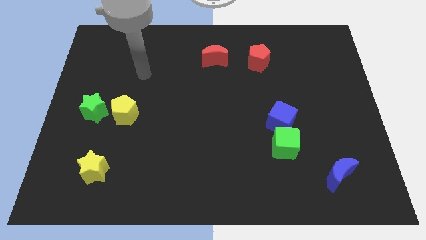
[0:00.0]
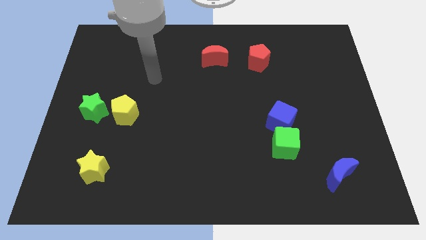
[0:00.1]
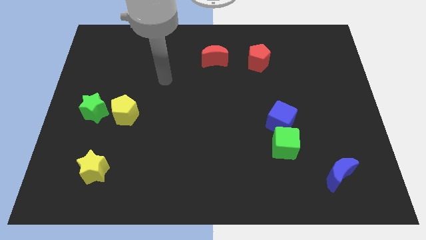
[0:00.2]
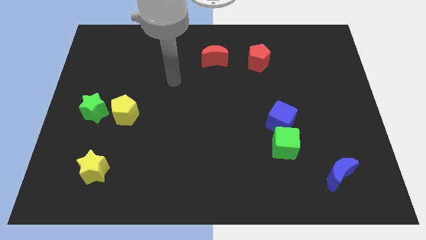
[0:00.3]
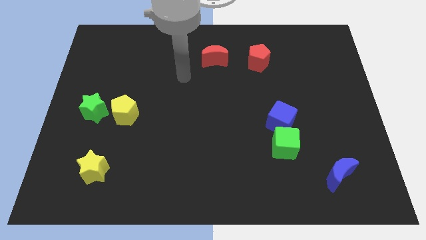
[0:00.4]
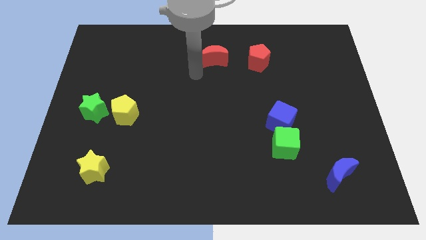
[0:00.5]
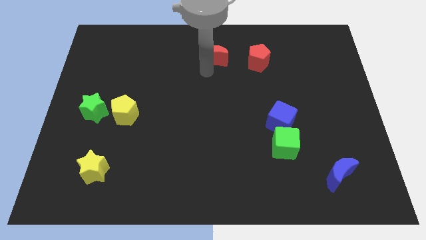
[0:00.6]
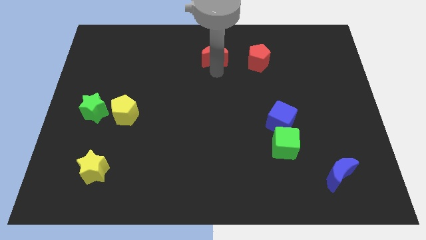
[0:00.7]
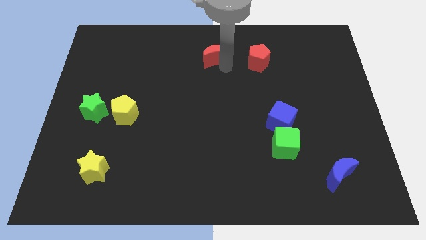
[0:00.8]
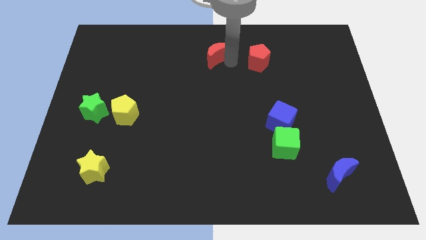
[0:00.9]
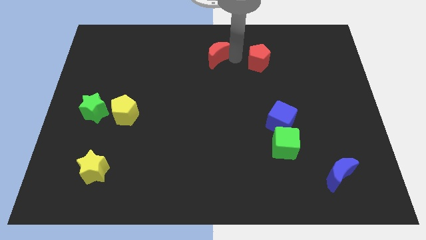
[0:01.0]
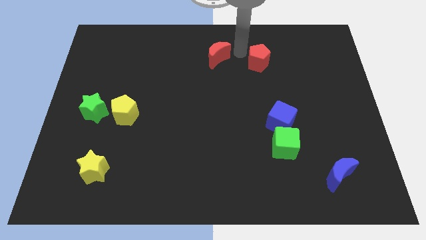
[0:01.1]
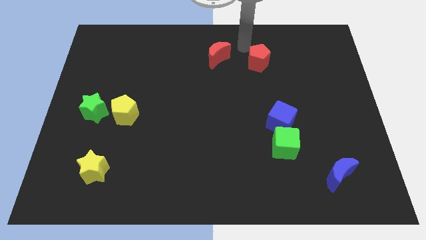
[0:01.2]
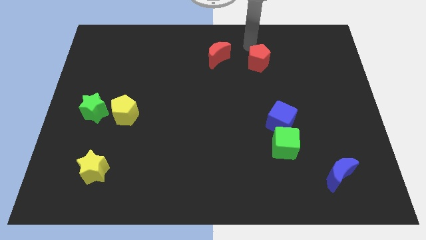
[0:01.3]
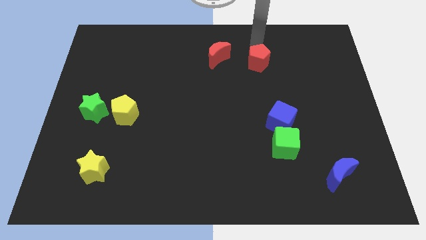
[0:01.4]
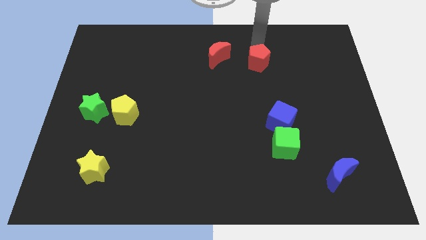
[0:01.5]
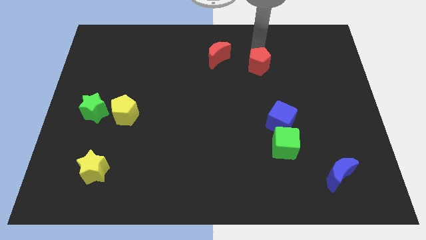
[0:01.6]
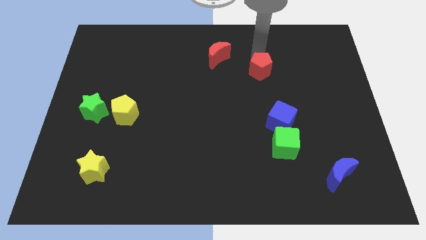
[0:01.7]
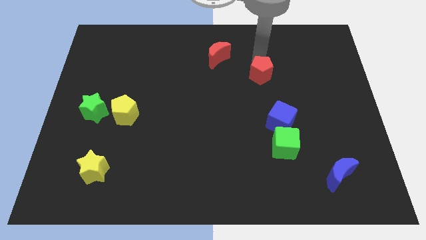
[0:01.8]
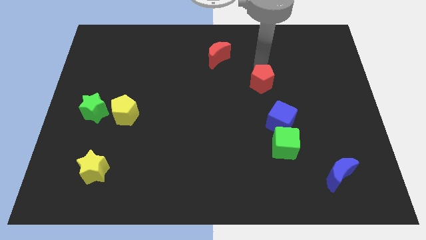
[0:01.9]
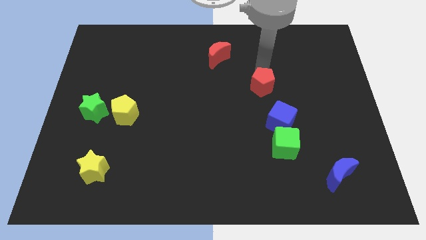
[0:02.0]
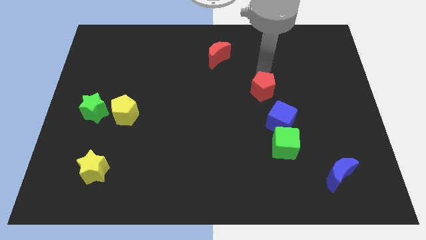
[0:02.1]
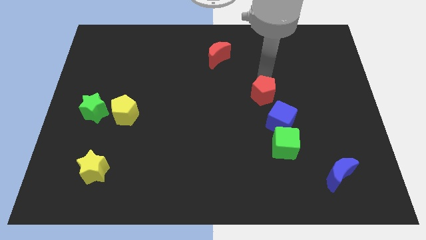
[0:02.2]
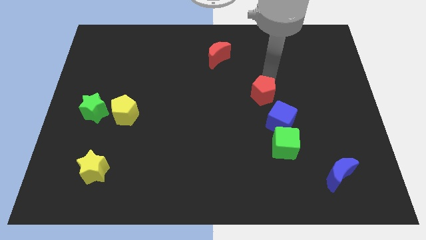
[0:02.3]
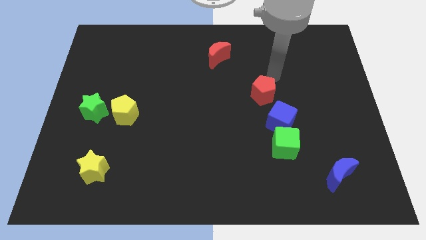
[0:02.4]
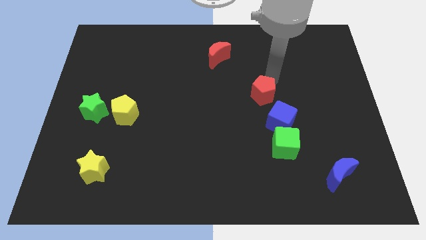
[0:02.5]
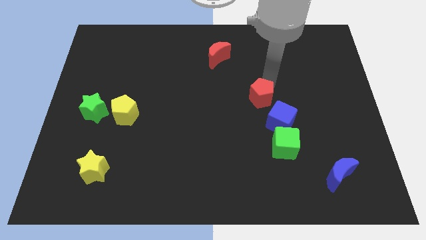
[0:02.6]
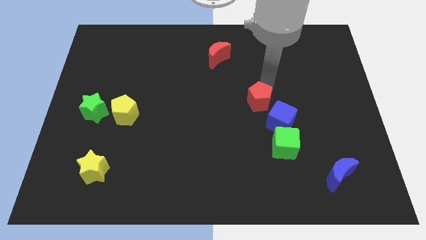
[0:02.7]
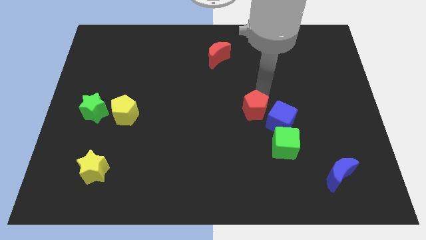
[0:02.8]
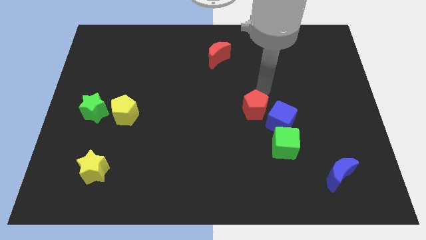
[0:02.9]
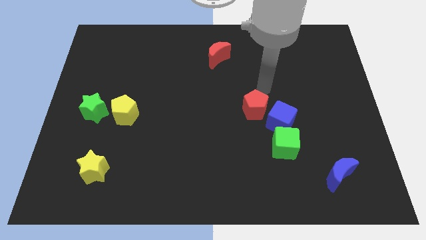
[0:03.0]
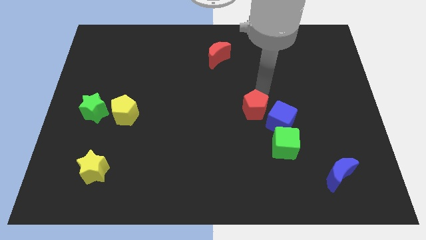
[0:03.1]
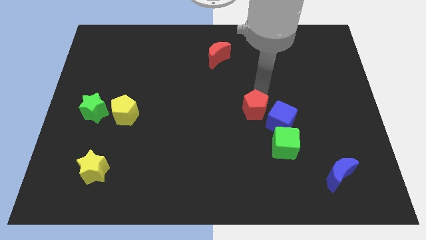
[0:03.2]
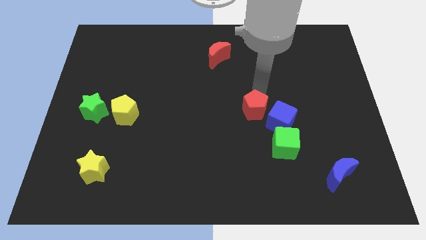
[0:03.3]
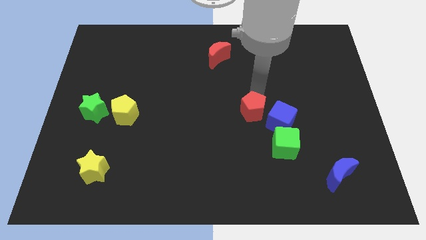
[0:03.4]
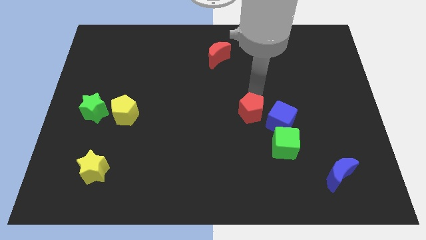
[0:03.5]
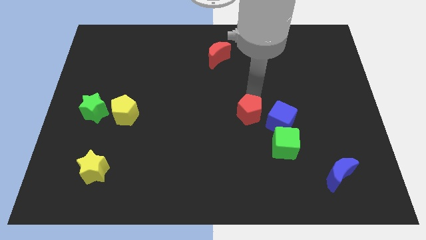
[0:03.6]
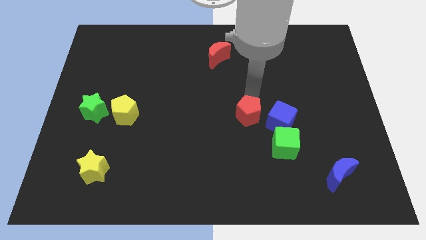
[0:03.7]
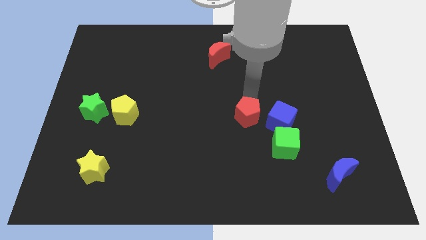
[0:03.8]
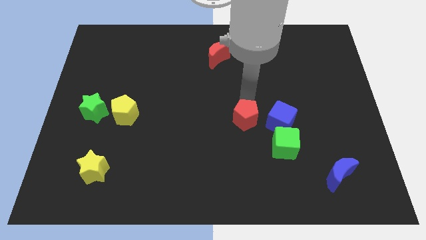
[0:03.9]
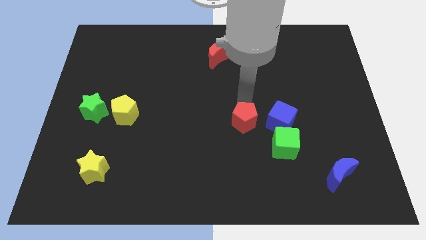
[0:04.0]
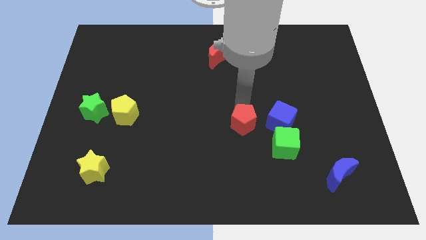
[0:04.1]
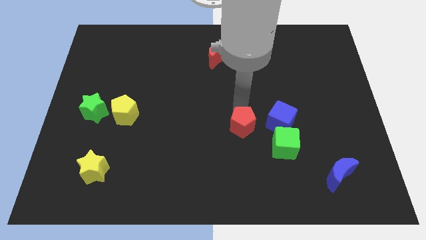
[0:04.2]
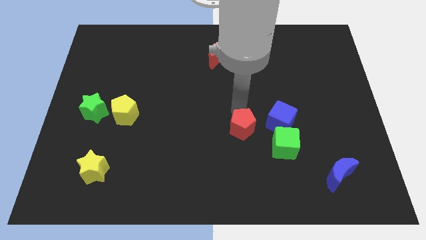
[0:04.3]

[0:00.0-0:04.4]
move the red pentagon left of the green cube

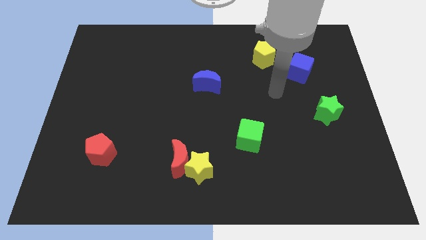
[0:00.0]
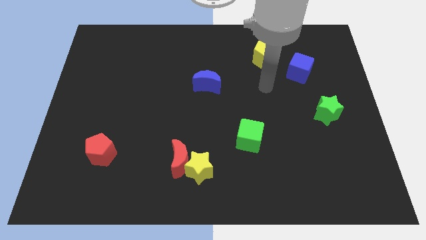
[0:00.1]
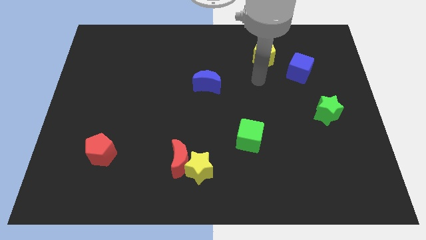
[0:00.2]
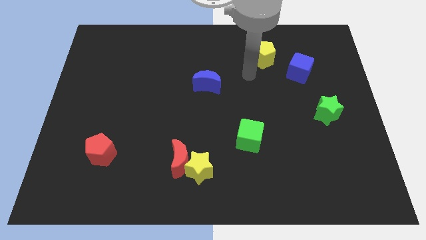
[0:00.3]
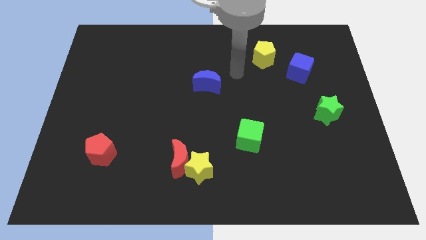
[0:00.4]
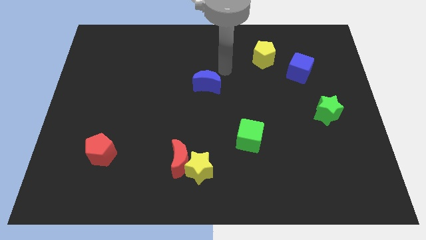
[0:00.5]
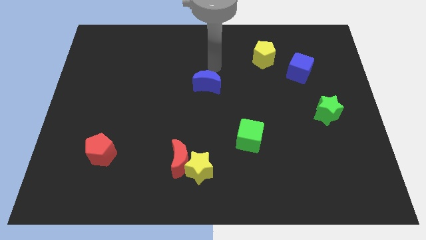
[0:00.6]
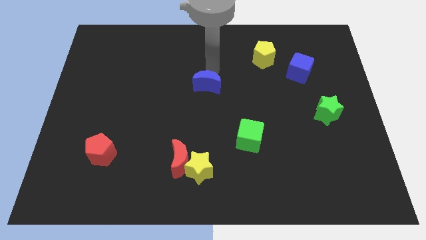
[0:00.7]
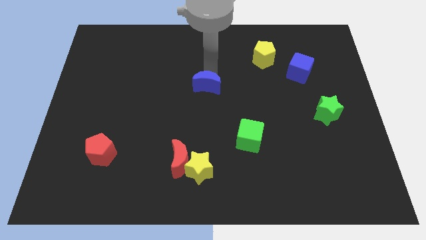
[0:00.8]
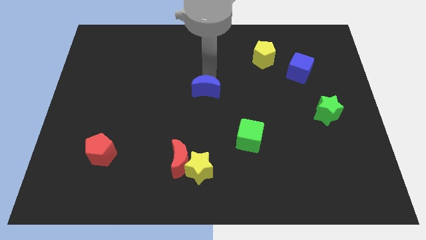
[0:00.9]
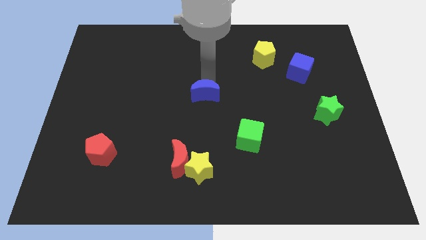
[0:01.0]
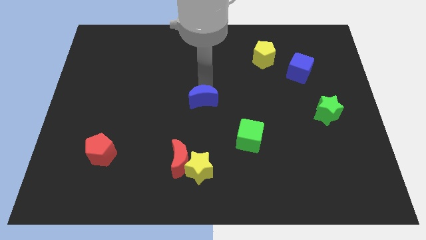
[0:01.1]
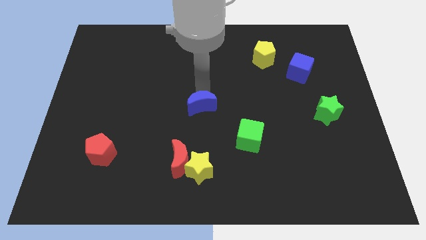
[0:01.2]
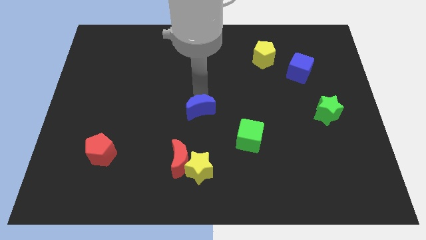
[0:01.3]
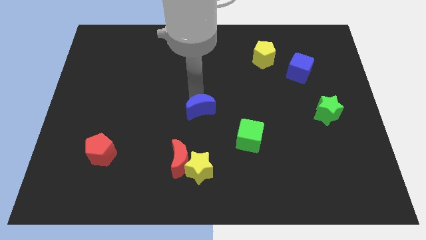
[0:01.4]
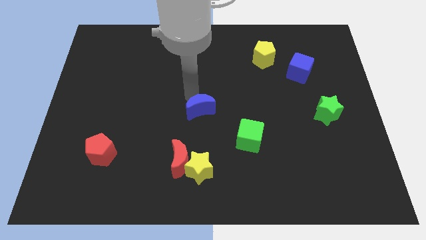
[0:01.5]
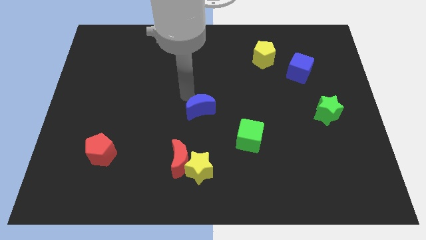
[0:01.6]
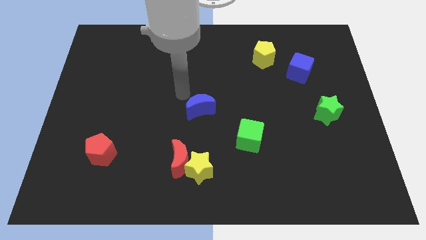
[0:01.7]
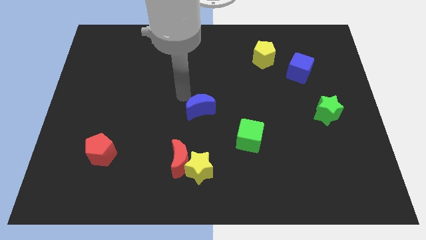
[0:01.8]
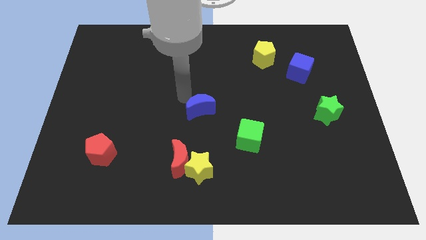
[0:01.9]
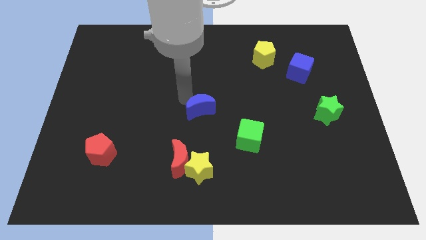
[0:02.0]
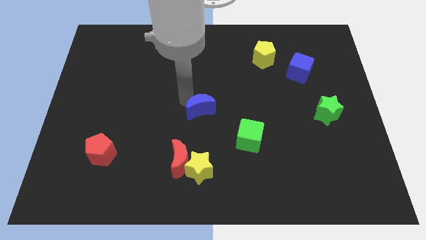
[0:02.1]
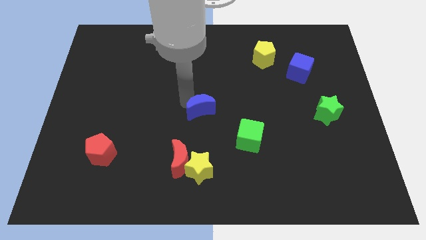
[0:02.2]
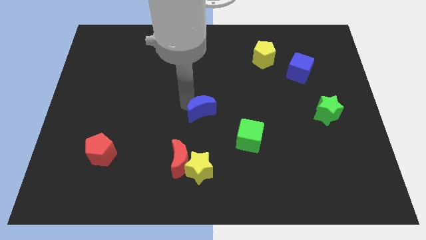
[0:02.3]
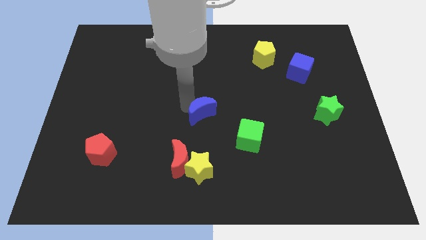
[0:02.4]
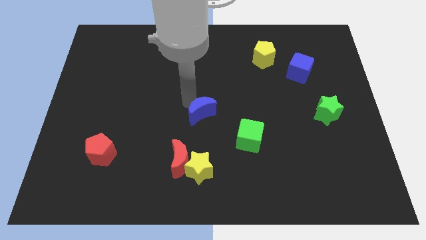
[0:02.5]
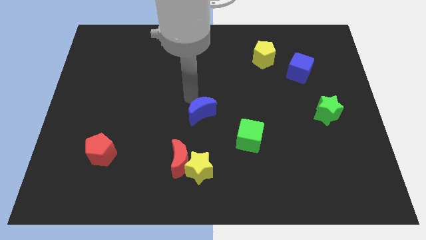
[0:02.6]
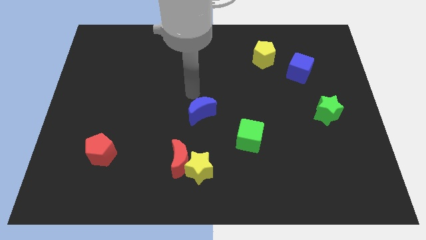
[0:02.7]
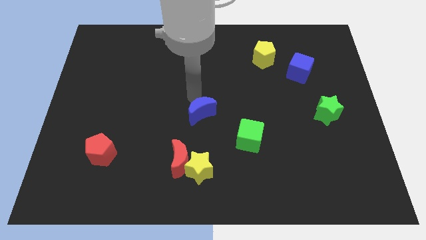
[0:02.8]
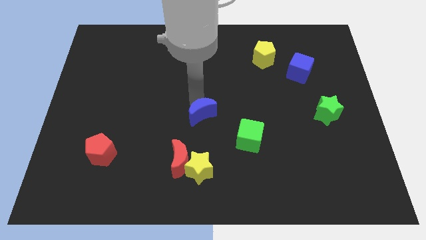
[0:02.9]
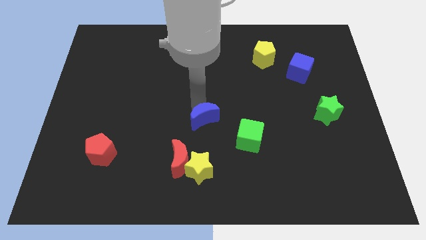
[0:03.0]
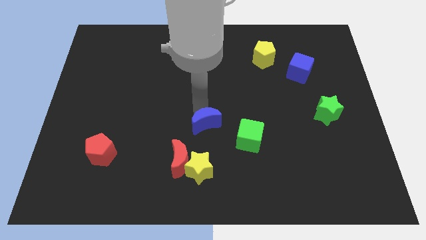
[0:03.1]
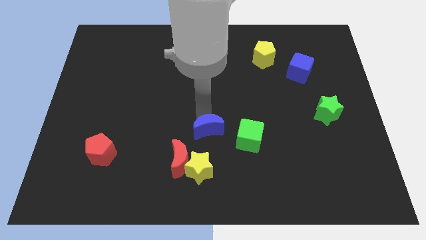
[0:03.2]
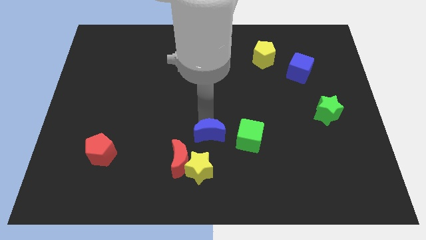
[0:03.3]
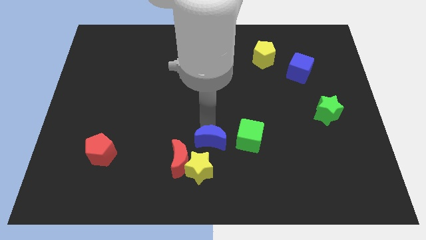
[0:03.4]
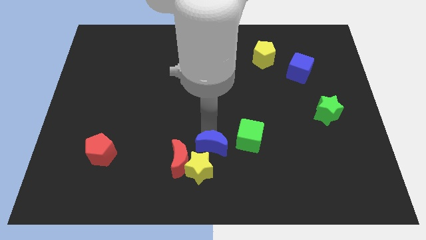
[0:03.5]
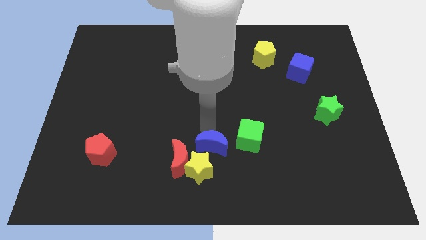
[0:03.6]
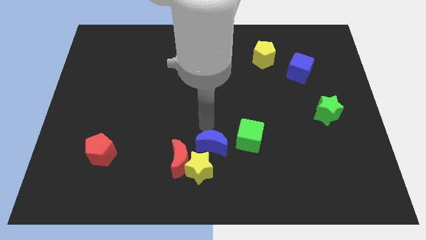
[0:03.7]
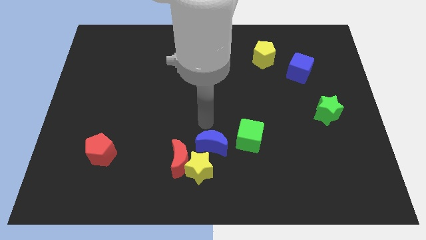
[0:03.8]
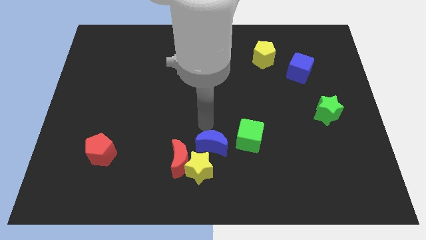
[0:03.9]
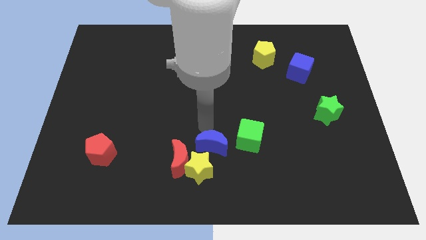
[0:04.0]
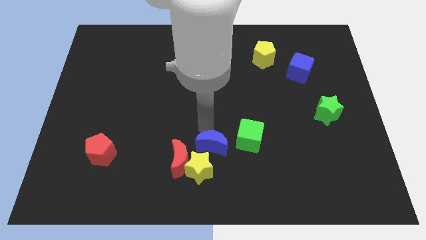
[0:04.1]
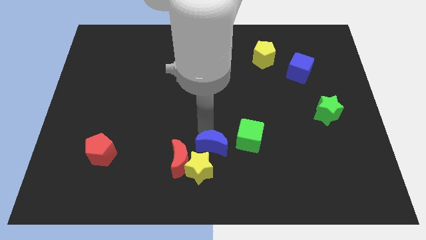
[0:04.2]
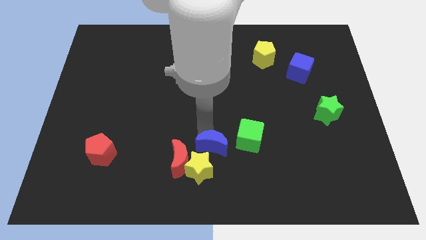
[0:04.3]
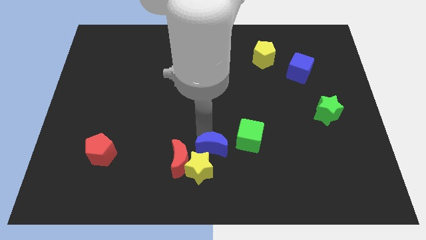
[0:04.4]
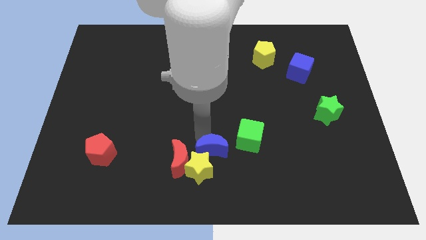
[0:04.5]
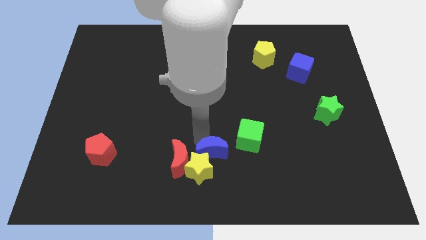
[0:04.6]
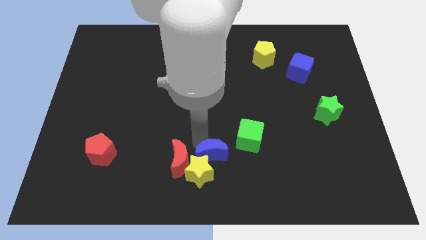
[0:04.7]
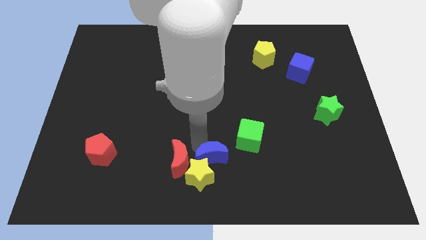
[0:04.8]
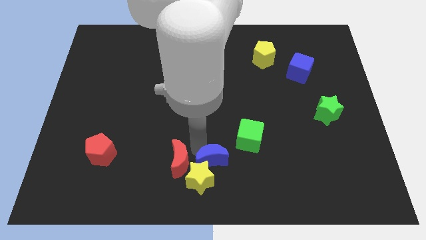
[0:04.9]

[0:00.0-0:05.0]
move the blue moon to the bottom right of the red moon
